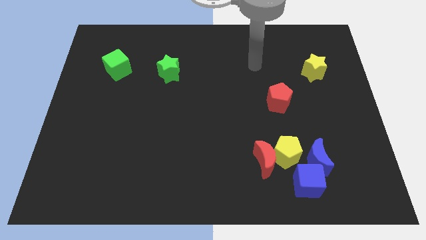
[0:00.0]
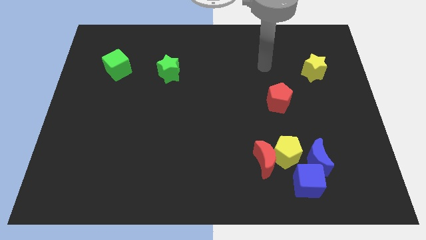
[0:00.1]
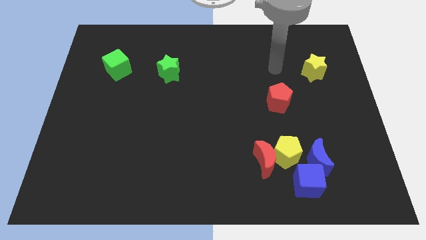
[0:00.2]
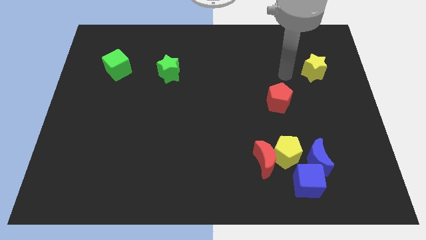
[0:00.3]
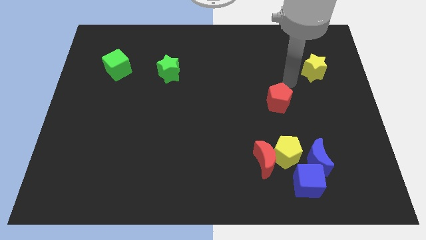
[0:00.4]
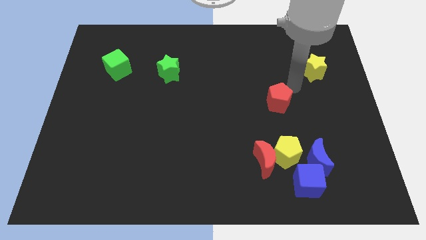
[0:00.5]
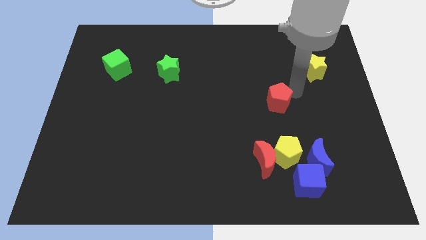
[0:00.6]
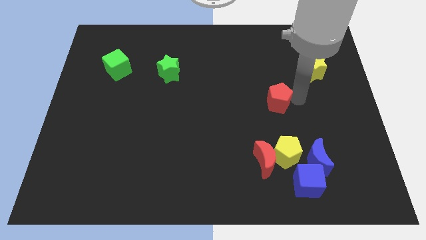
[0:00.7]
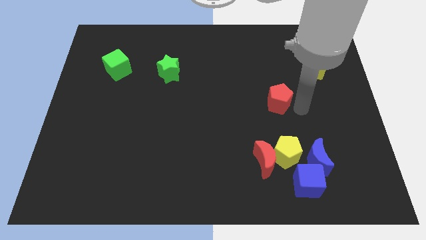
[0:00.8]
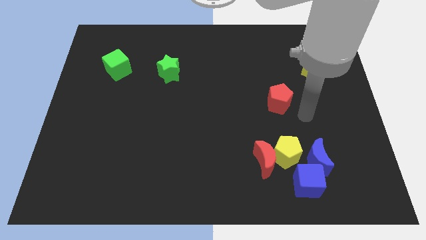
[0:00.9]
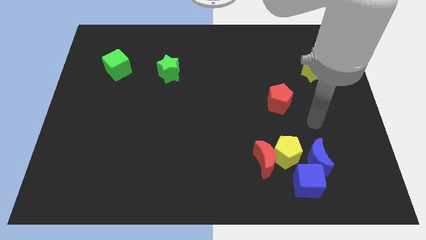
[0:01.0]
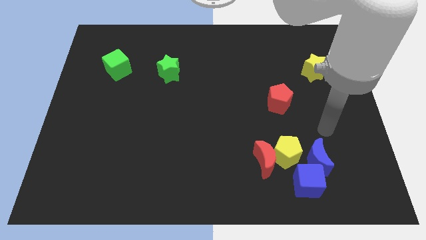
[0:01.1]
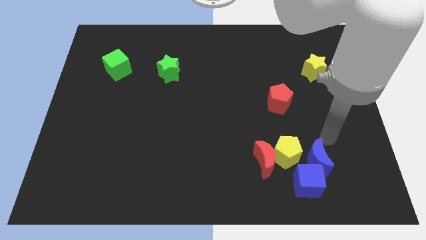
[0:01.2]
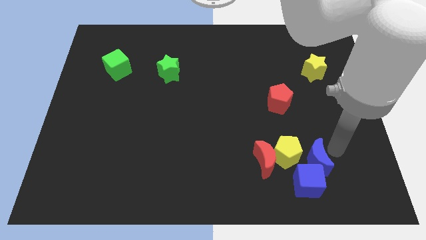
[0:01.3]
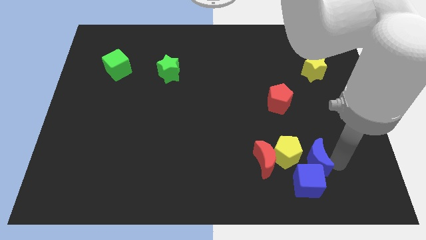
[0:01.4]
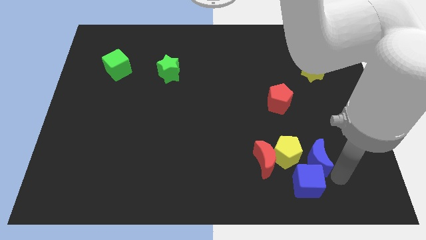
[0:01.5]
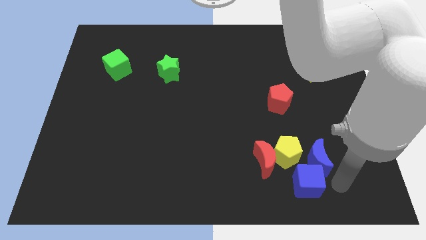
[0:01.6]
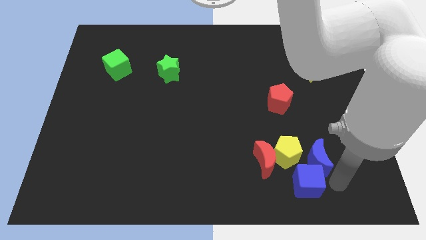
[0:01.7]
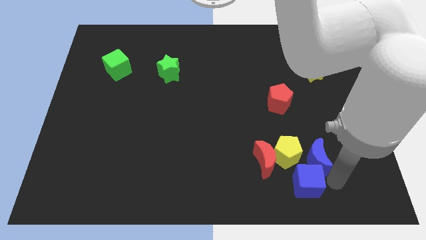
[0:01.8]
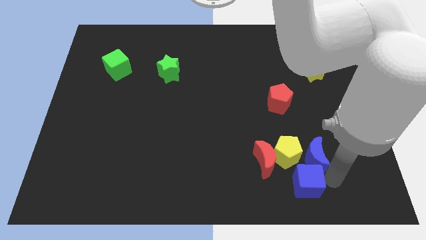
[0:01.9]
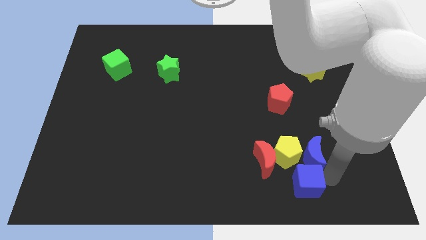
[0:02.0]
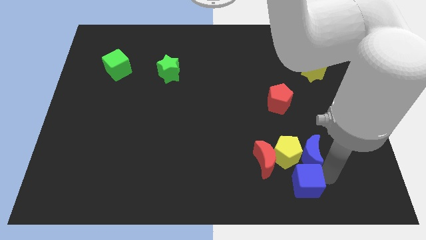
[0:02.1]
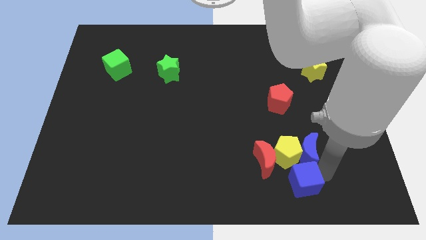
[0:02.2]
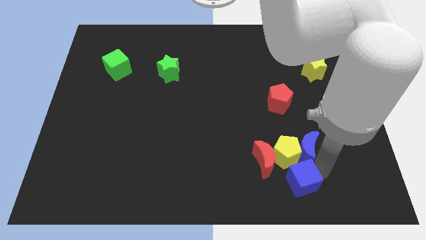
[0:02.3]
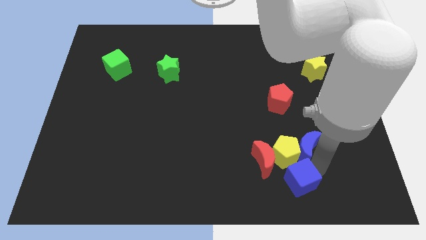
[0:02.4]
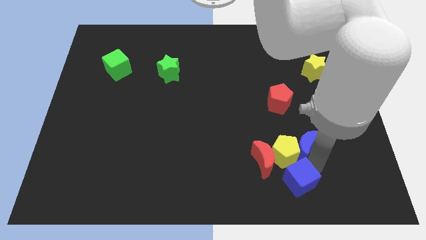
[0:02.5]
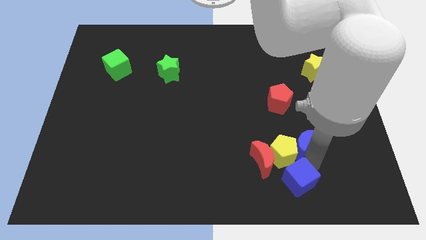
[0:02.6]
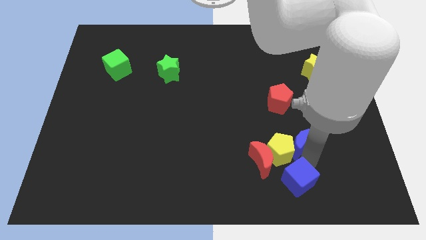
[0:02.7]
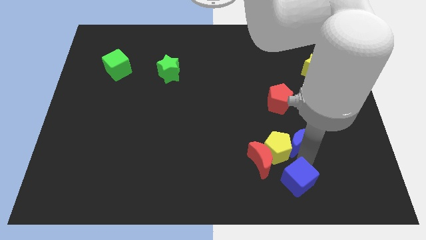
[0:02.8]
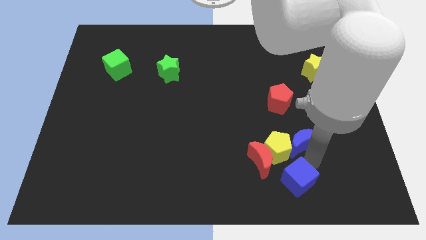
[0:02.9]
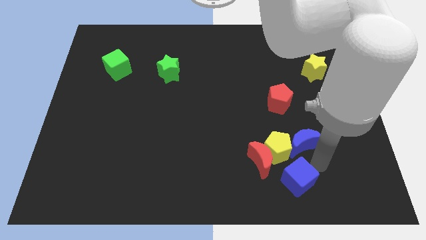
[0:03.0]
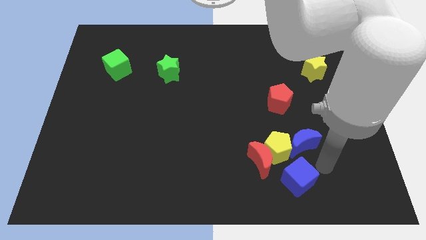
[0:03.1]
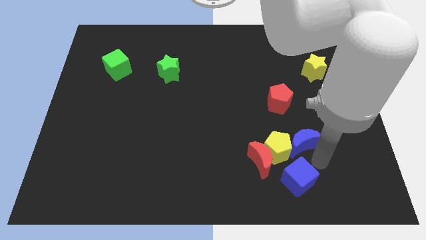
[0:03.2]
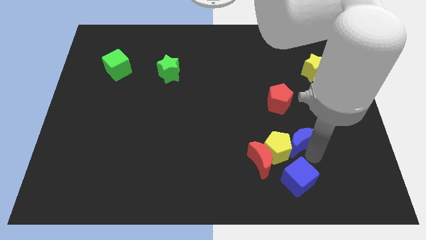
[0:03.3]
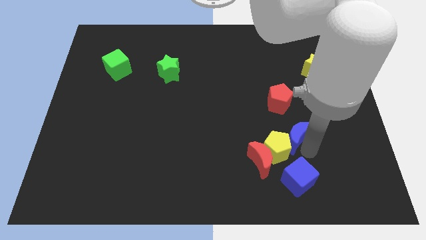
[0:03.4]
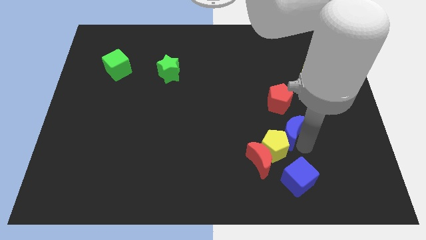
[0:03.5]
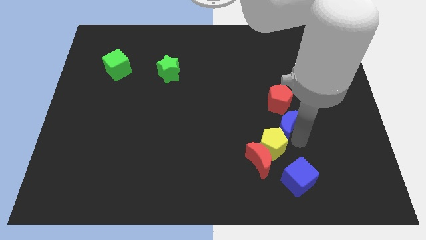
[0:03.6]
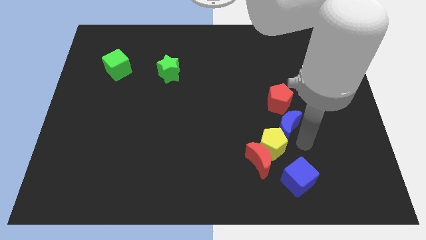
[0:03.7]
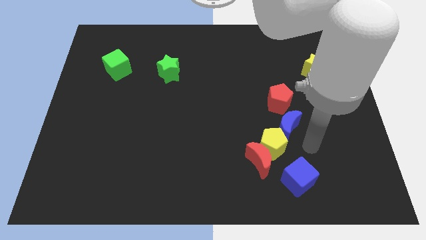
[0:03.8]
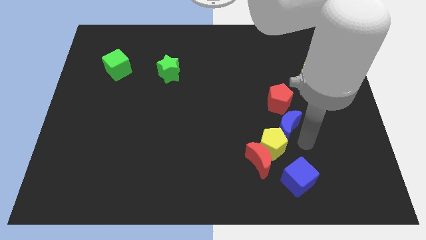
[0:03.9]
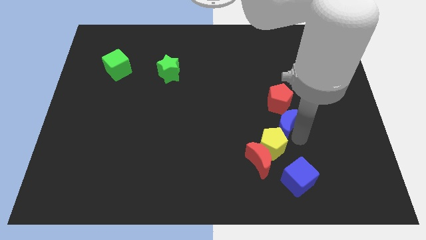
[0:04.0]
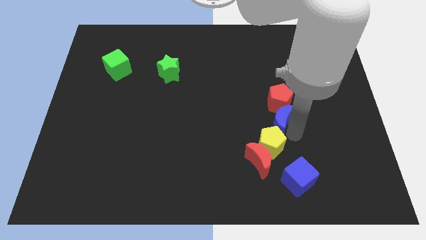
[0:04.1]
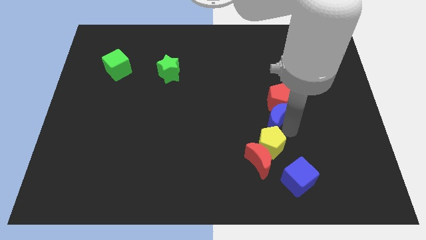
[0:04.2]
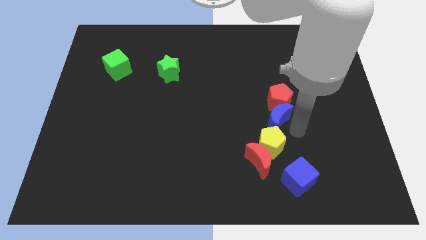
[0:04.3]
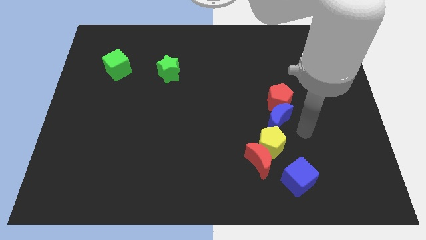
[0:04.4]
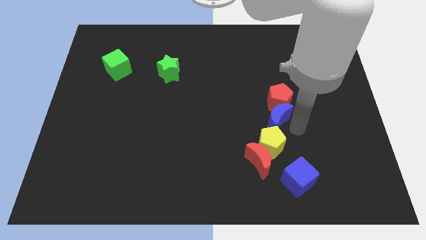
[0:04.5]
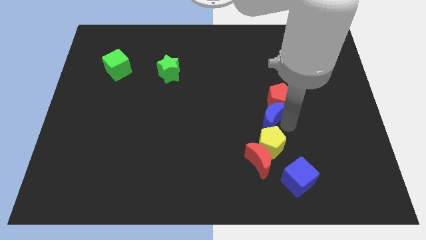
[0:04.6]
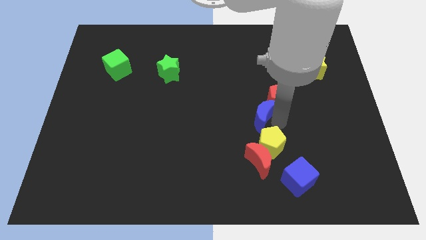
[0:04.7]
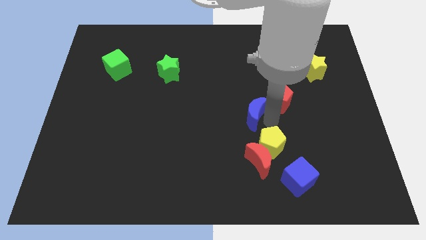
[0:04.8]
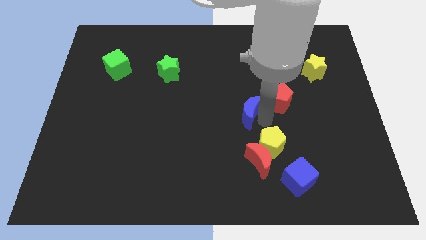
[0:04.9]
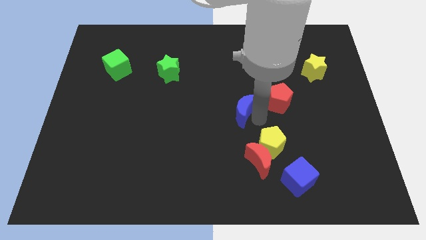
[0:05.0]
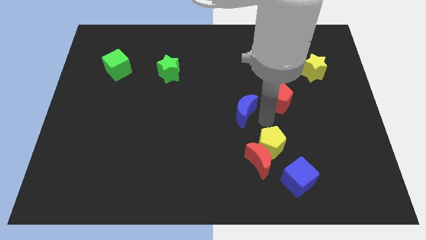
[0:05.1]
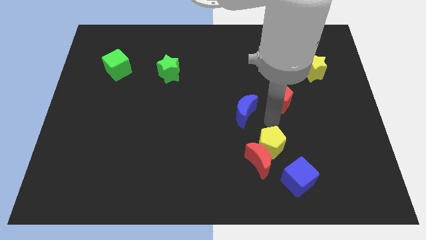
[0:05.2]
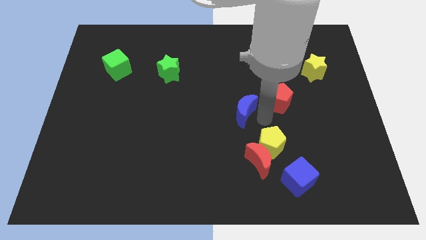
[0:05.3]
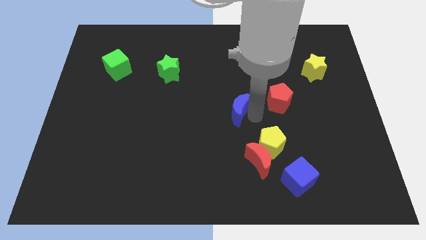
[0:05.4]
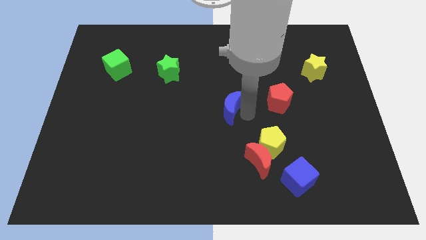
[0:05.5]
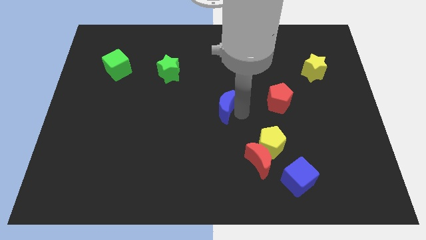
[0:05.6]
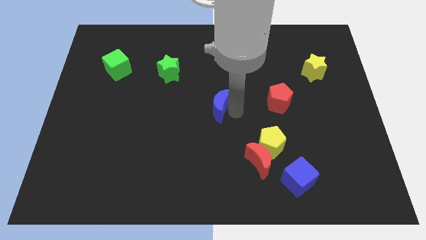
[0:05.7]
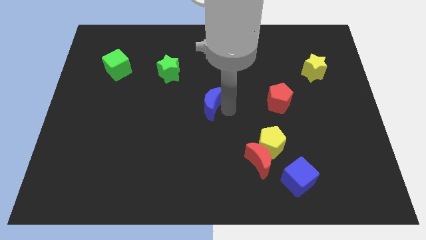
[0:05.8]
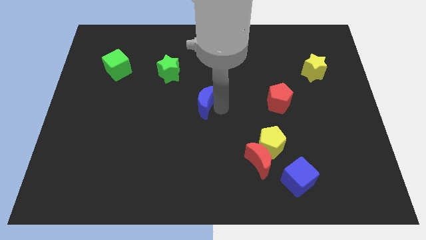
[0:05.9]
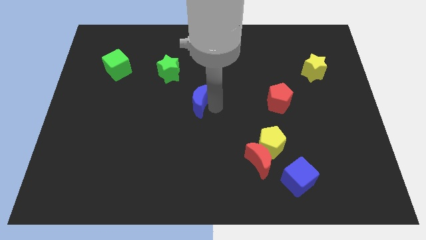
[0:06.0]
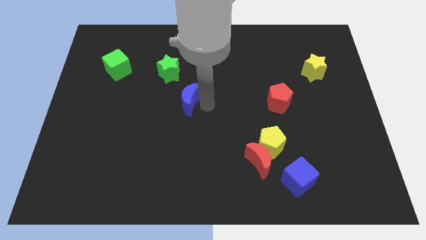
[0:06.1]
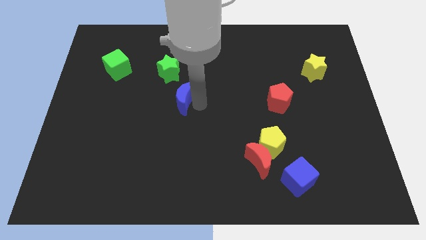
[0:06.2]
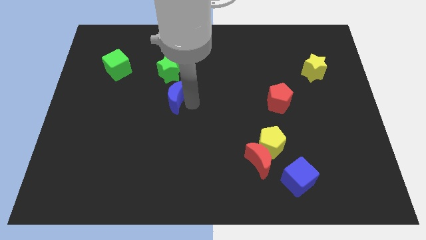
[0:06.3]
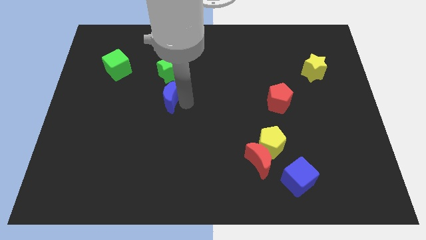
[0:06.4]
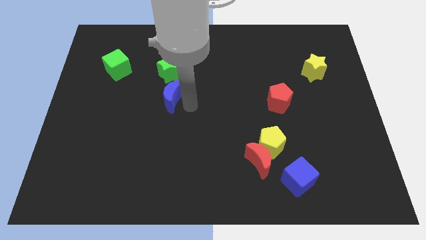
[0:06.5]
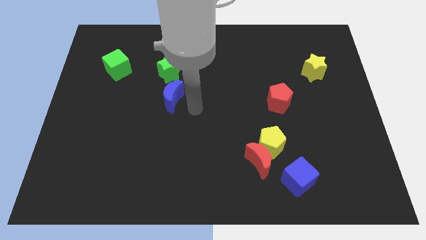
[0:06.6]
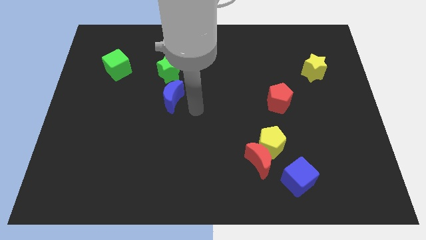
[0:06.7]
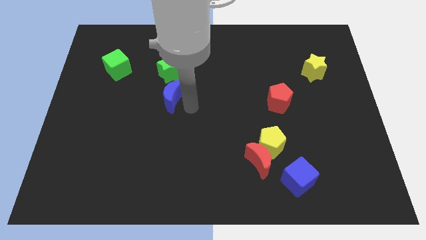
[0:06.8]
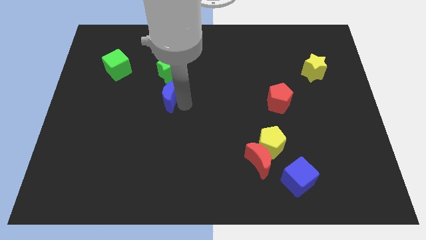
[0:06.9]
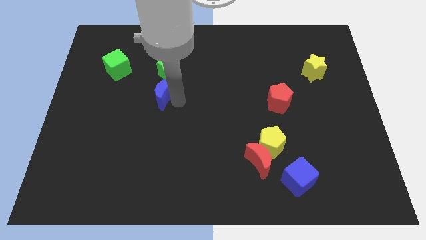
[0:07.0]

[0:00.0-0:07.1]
slide the blue moon to the bottom left of the green star
